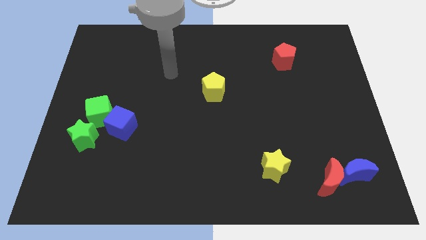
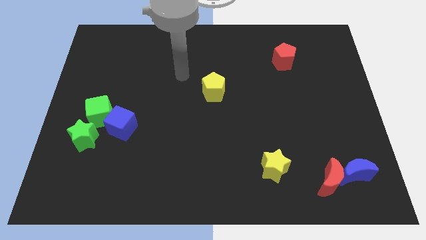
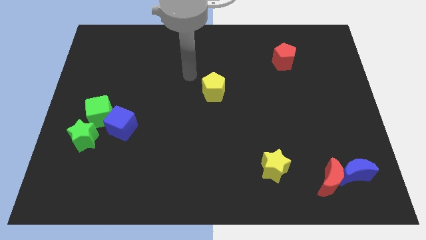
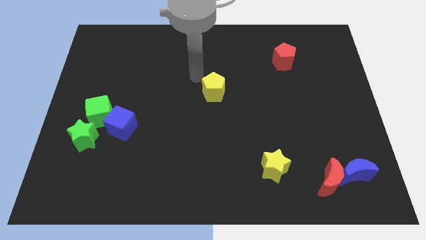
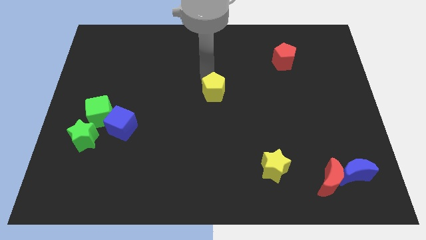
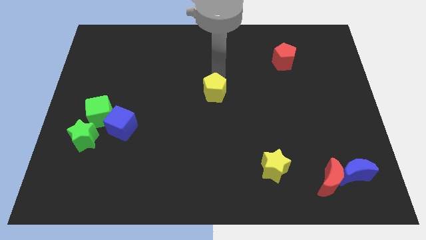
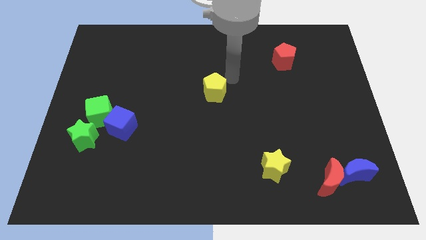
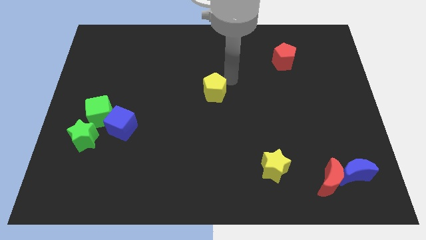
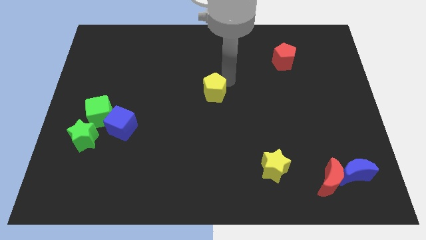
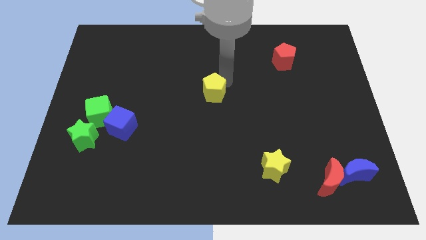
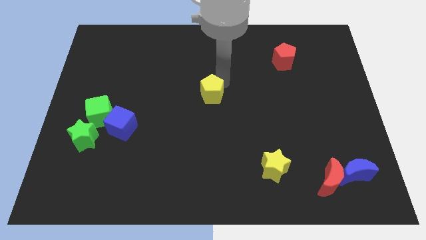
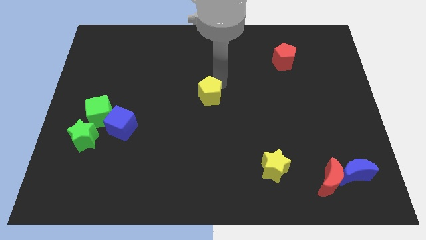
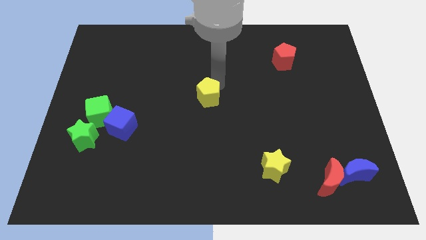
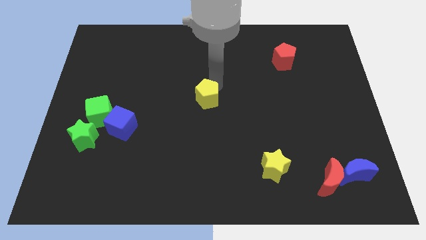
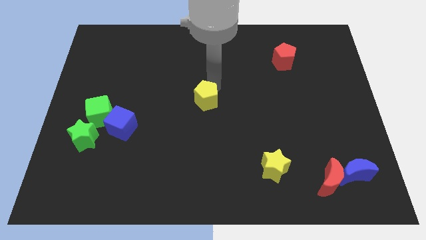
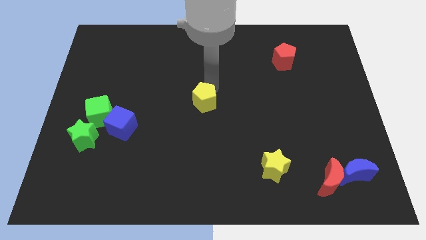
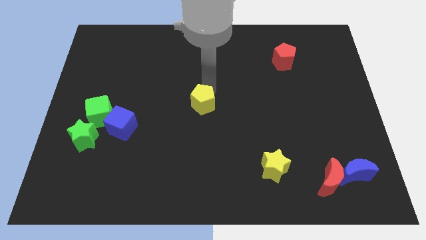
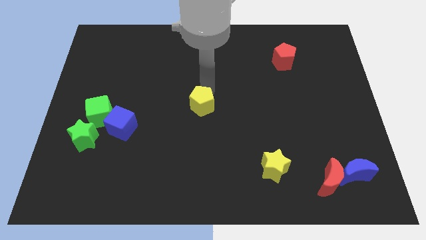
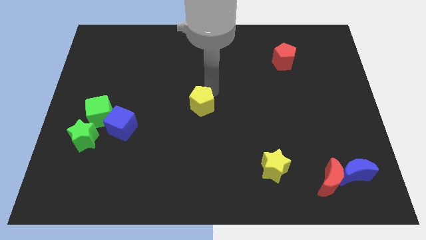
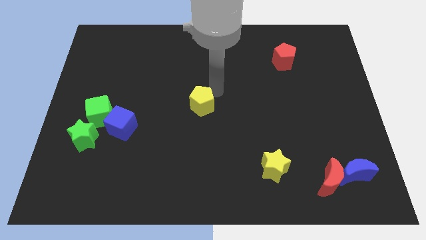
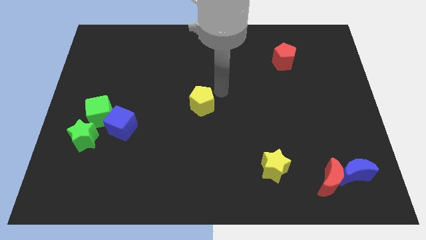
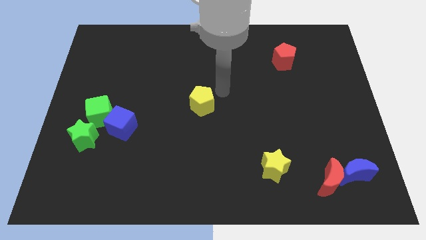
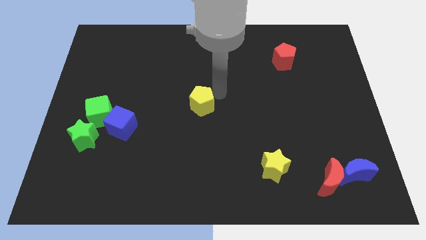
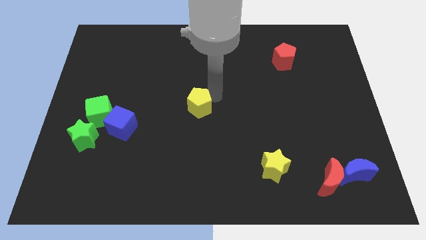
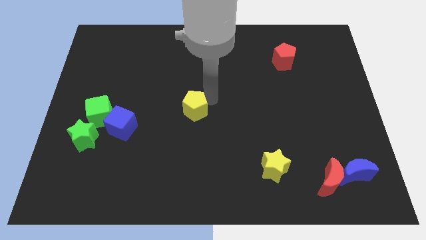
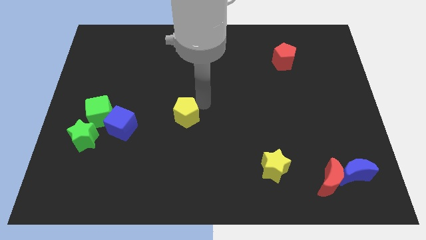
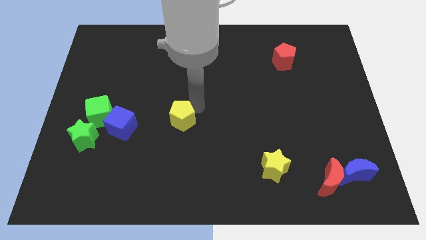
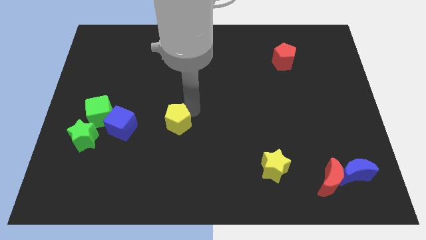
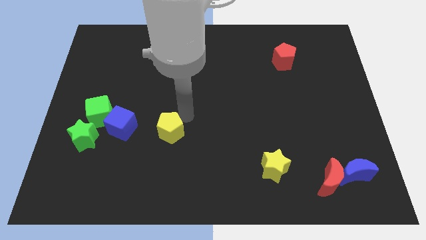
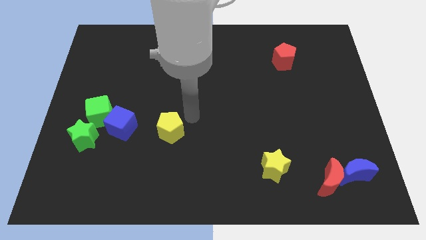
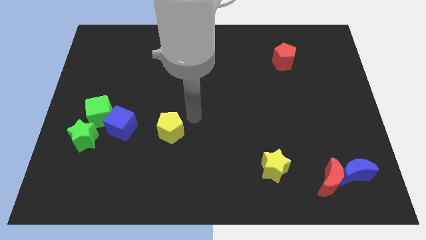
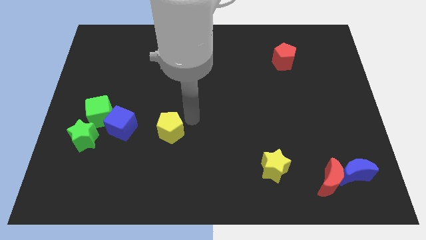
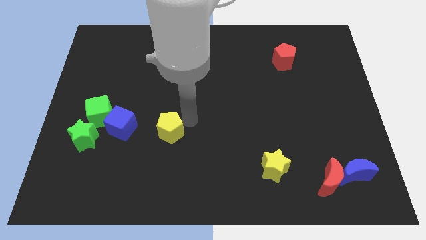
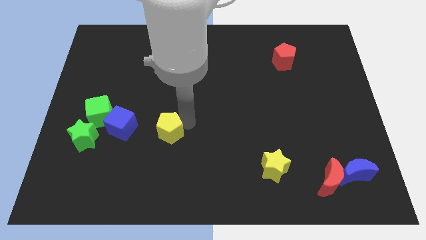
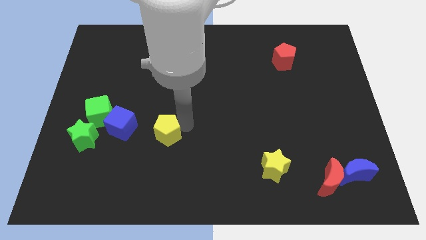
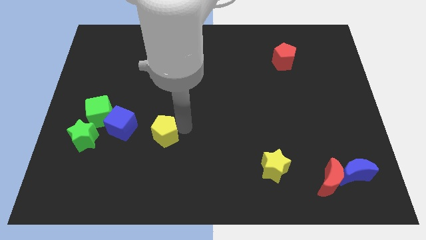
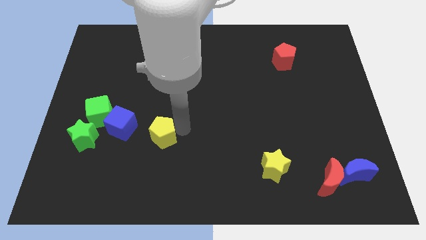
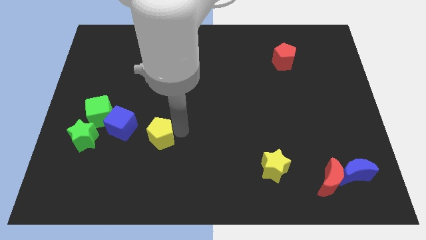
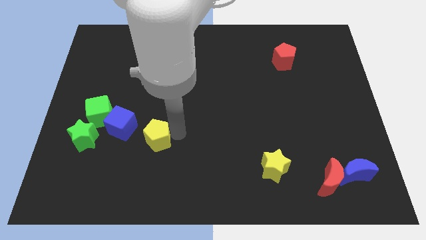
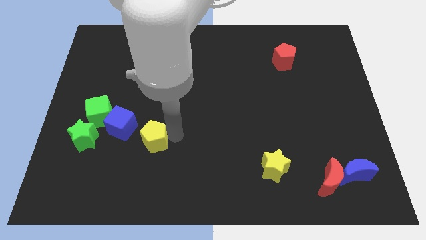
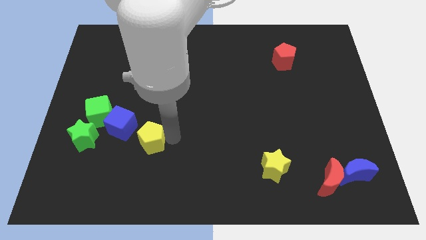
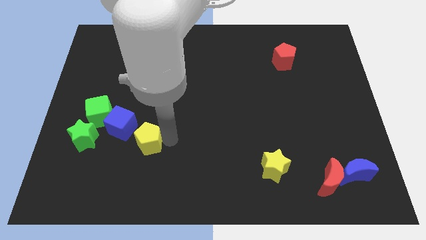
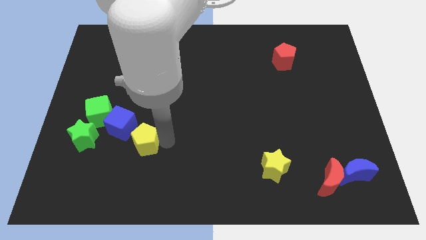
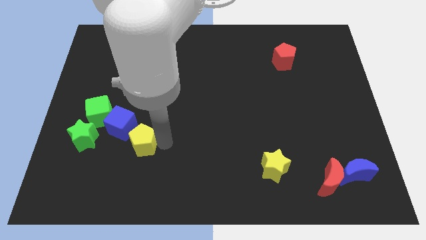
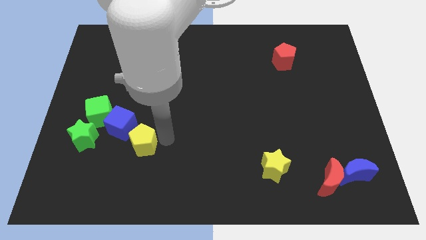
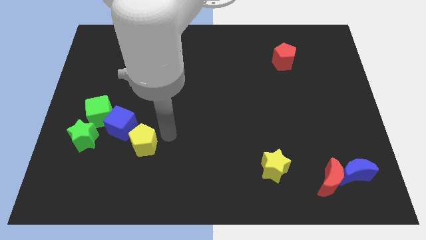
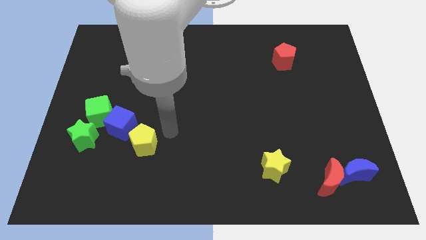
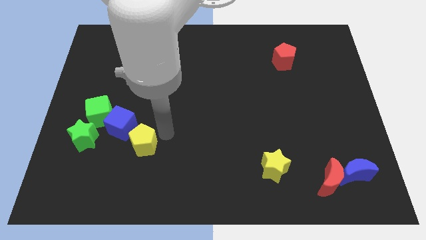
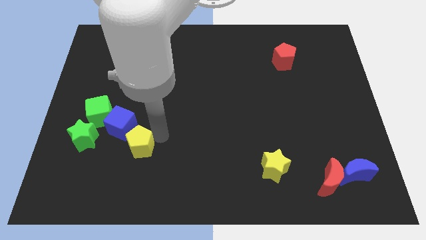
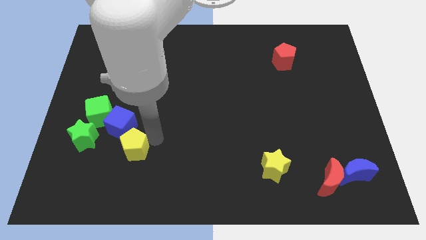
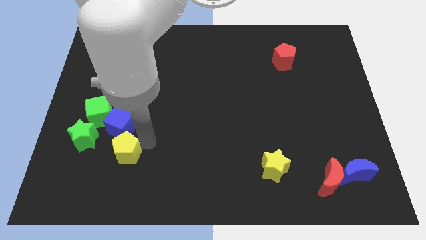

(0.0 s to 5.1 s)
put the yellow pentagon diagonally down and to the right of the green star
